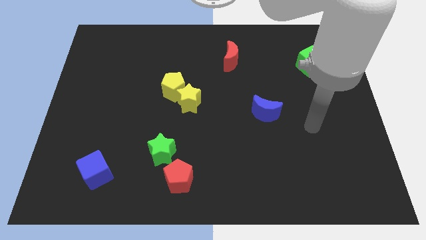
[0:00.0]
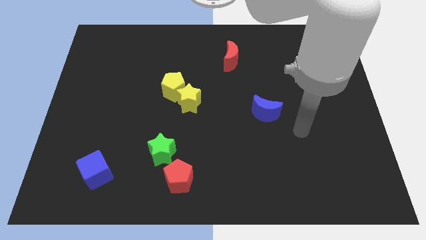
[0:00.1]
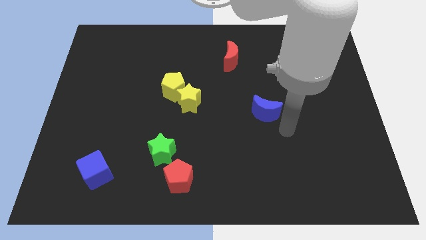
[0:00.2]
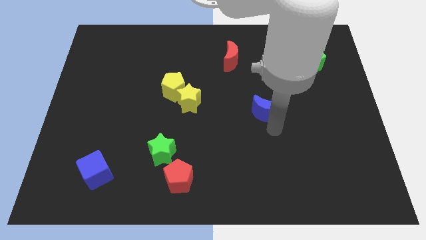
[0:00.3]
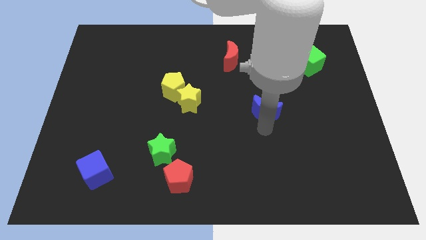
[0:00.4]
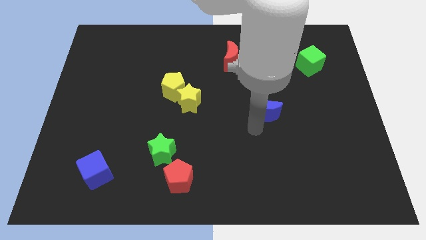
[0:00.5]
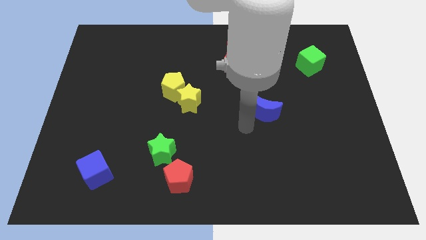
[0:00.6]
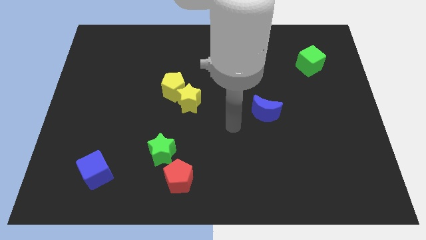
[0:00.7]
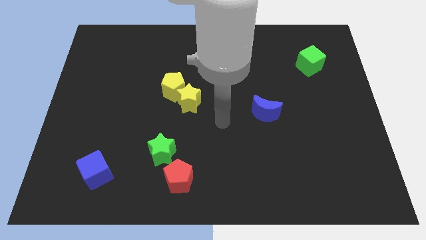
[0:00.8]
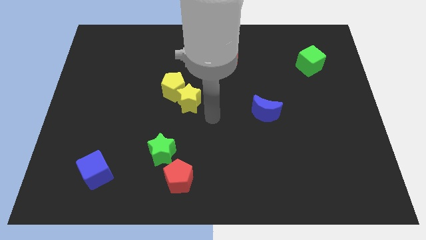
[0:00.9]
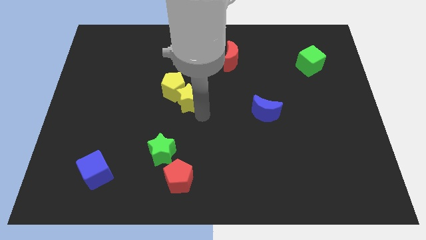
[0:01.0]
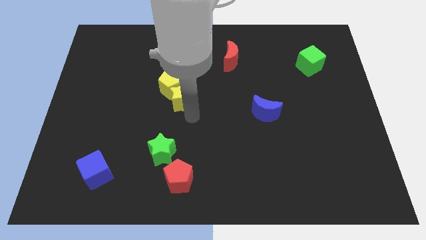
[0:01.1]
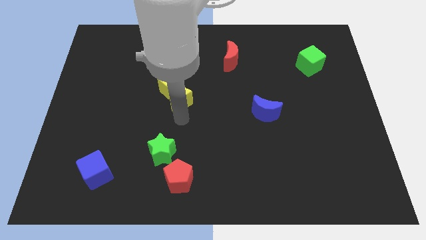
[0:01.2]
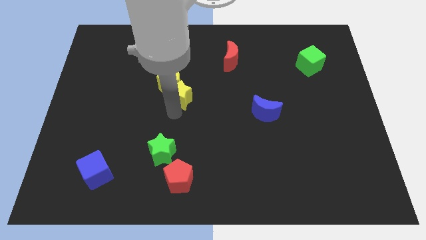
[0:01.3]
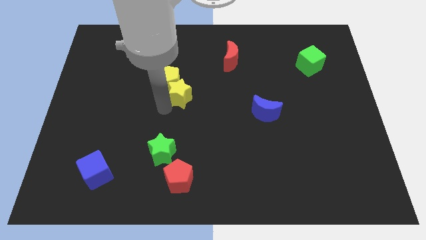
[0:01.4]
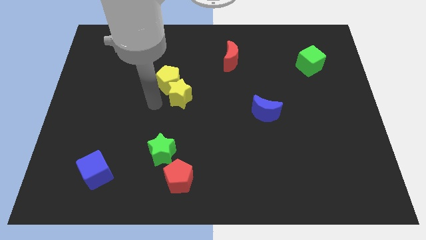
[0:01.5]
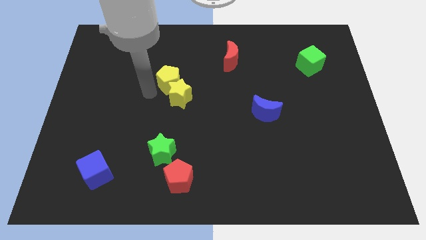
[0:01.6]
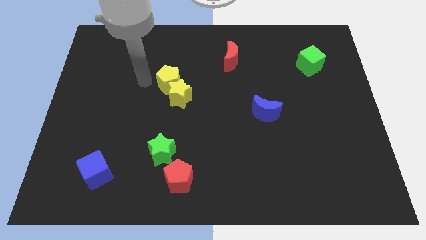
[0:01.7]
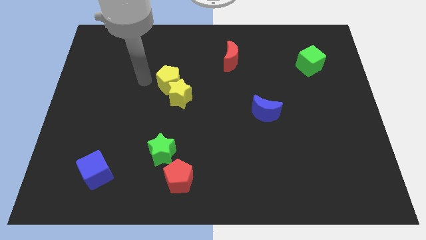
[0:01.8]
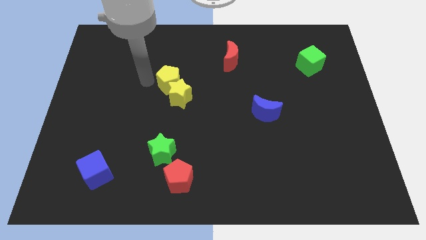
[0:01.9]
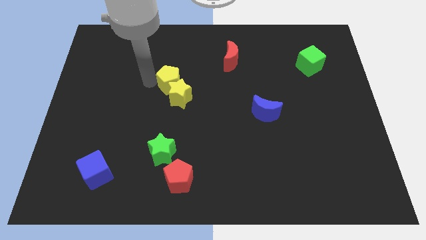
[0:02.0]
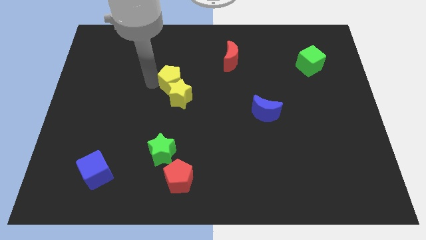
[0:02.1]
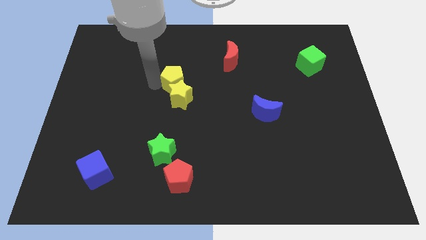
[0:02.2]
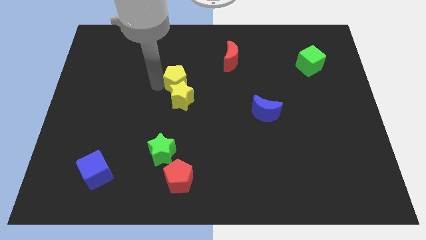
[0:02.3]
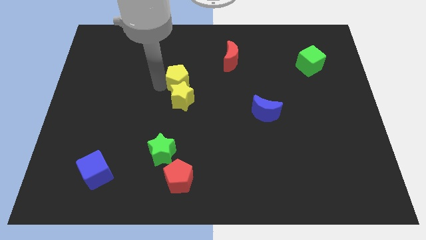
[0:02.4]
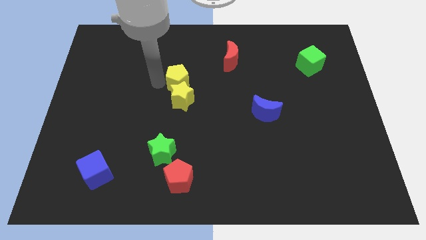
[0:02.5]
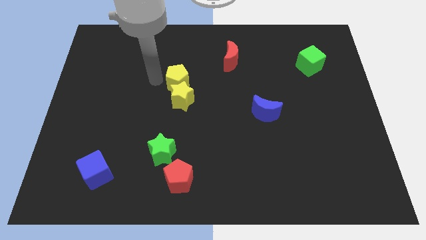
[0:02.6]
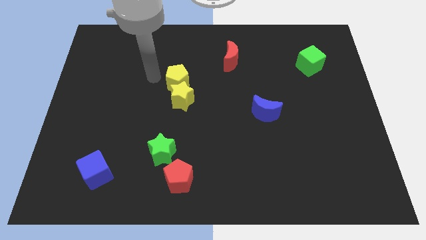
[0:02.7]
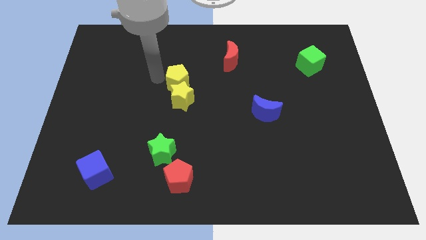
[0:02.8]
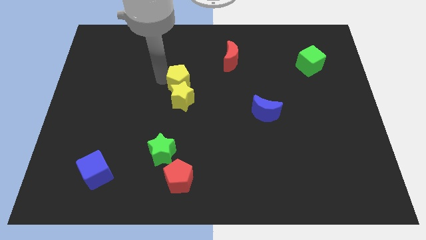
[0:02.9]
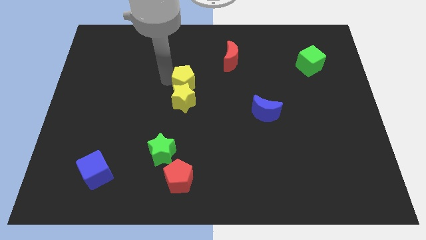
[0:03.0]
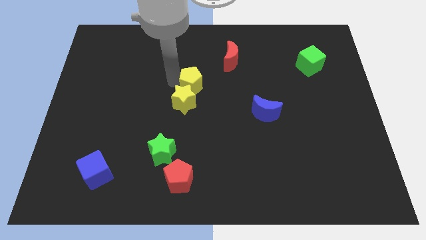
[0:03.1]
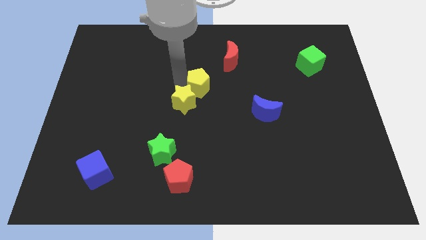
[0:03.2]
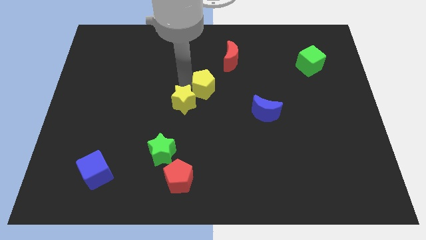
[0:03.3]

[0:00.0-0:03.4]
slightly move the yellow pentagon right

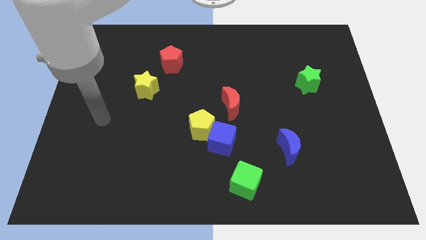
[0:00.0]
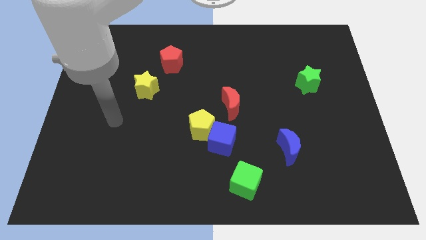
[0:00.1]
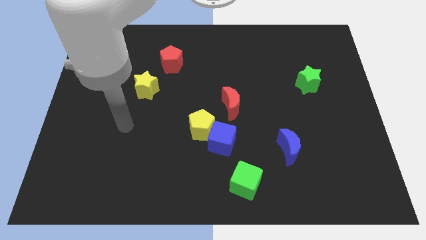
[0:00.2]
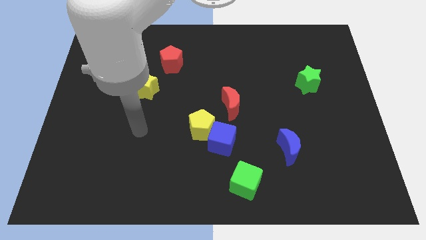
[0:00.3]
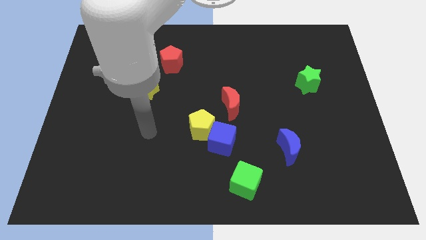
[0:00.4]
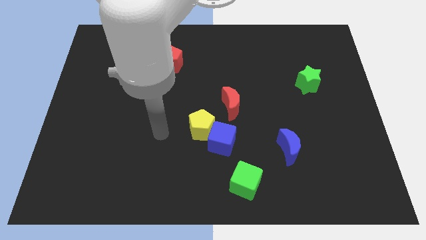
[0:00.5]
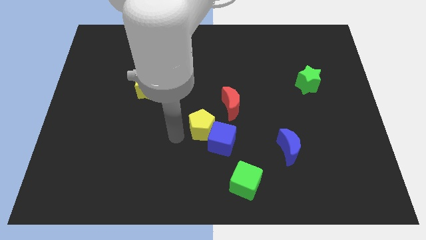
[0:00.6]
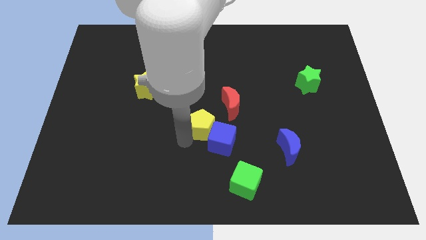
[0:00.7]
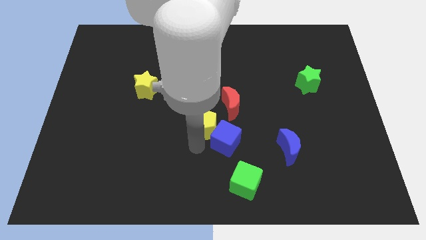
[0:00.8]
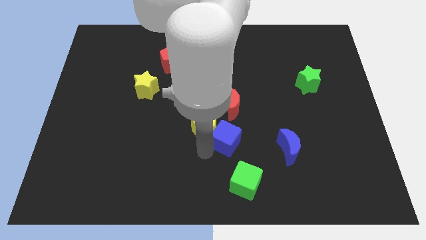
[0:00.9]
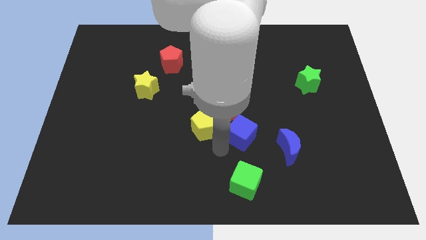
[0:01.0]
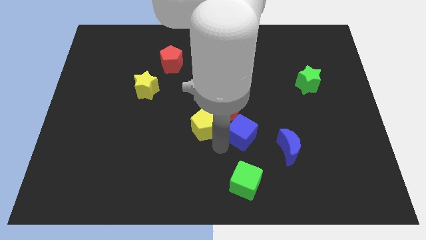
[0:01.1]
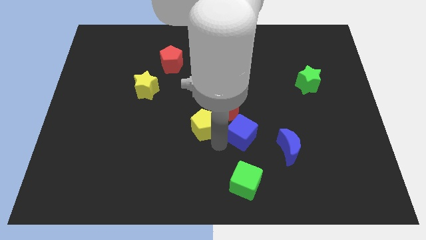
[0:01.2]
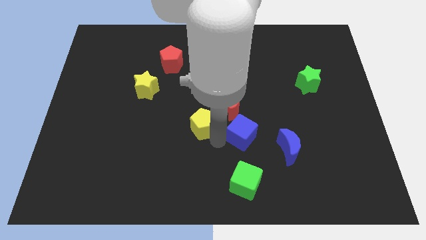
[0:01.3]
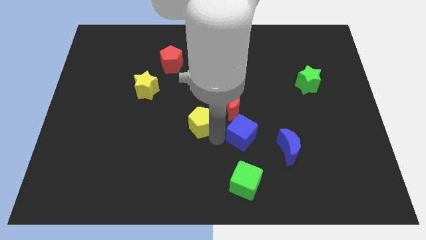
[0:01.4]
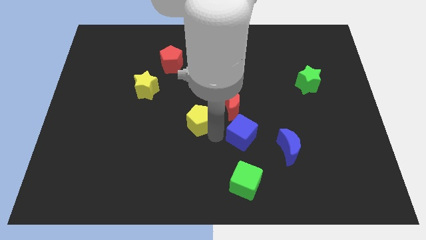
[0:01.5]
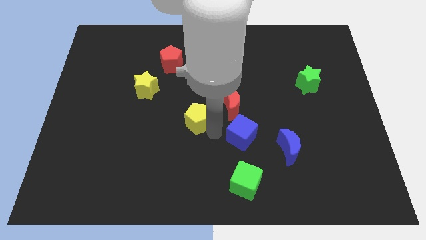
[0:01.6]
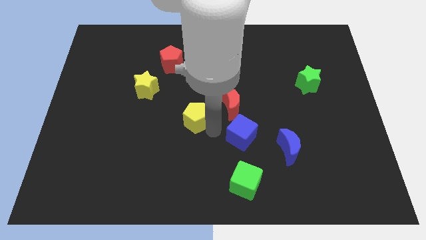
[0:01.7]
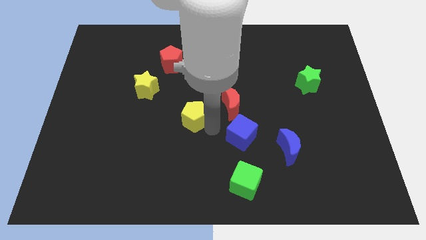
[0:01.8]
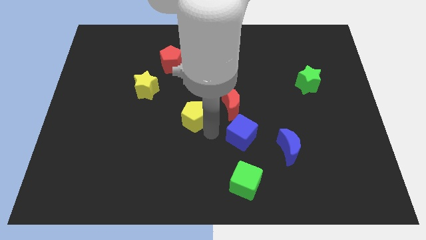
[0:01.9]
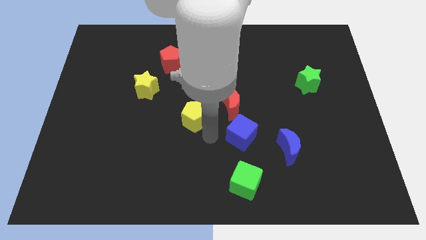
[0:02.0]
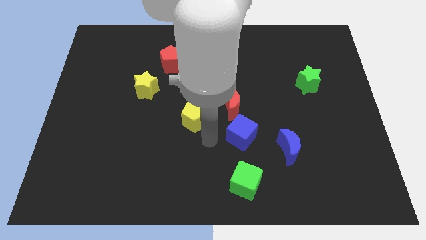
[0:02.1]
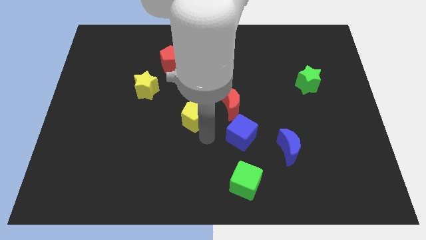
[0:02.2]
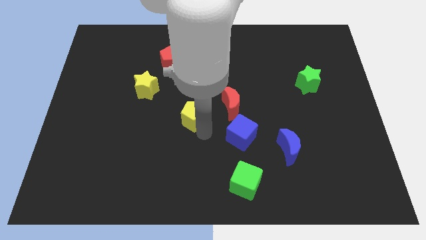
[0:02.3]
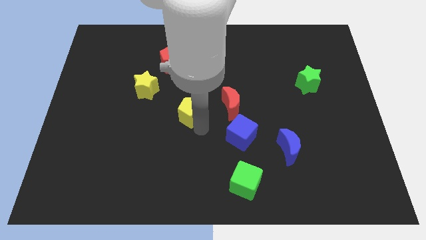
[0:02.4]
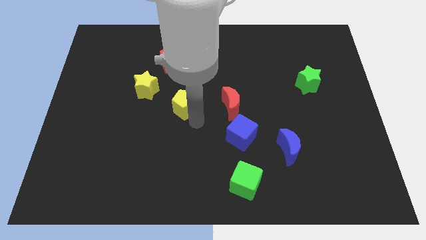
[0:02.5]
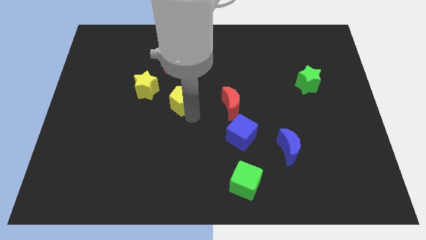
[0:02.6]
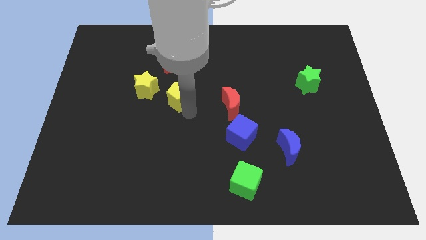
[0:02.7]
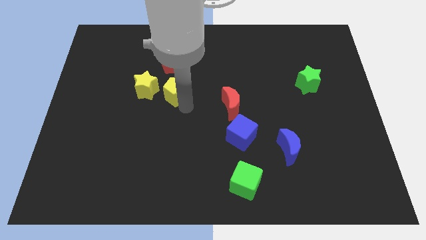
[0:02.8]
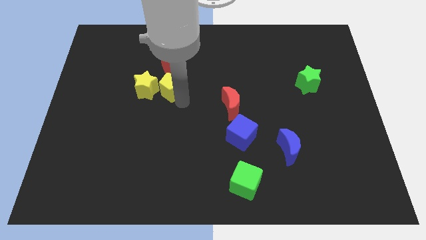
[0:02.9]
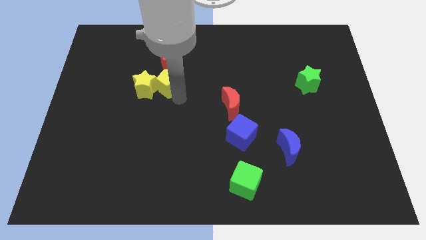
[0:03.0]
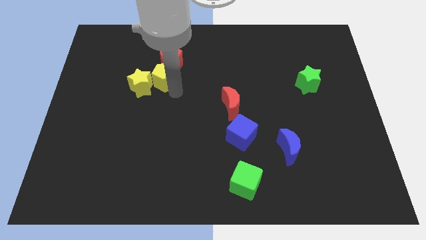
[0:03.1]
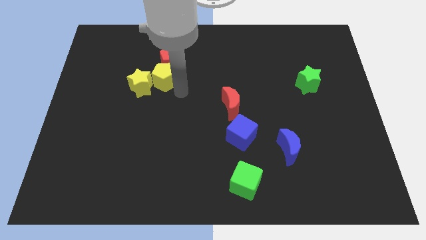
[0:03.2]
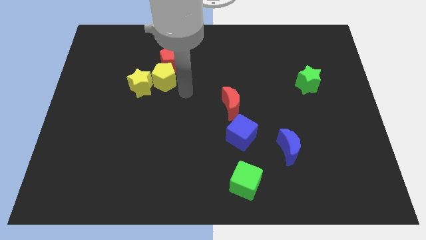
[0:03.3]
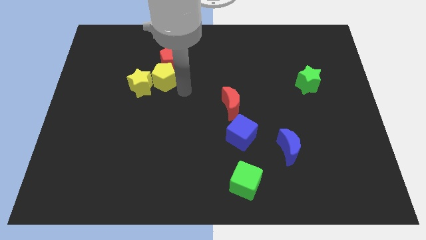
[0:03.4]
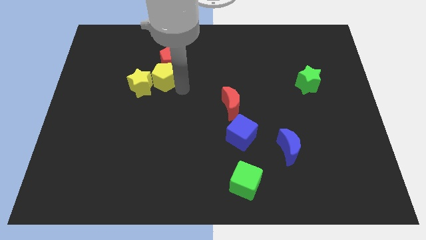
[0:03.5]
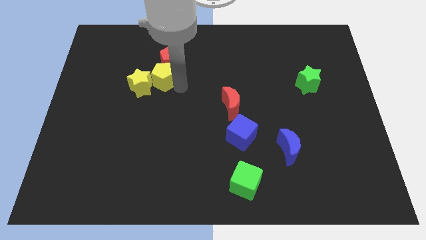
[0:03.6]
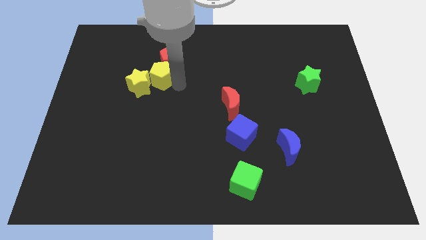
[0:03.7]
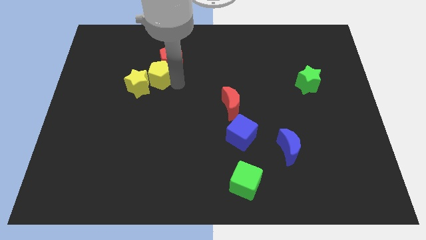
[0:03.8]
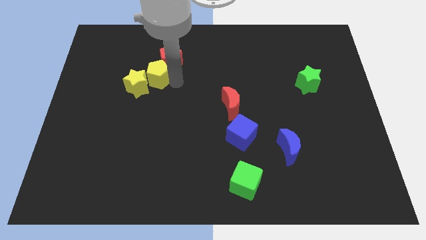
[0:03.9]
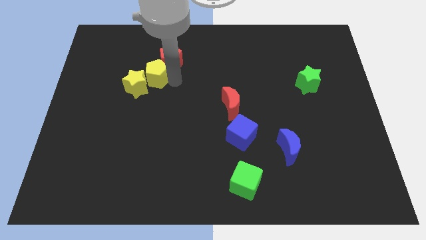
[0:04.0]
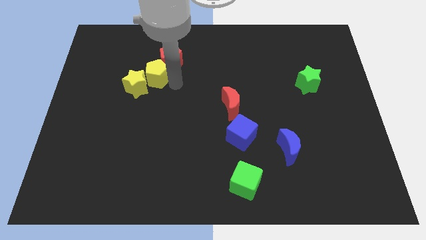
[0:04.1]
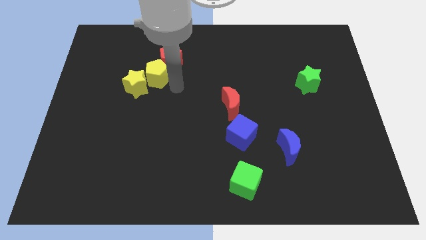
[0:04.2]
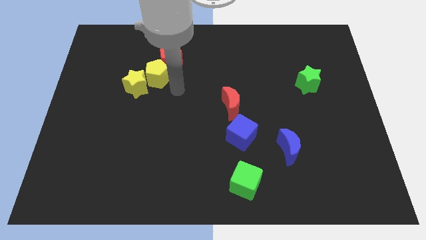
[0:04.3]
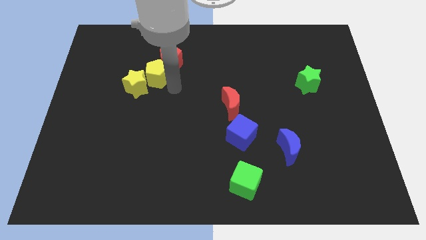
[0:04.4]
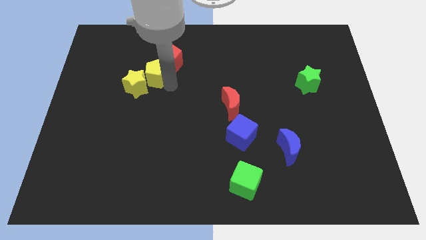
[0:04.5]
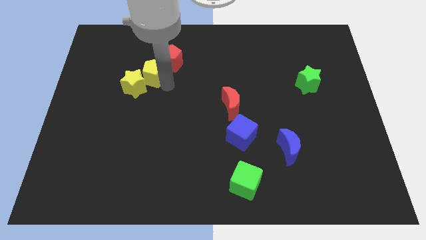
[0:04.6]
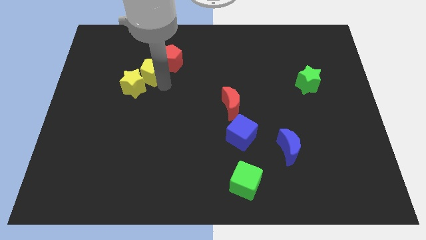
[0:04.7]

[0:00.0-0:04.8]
move the yellow pentagon up and left

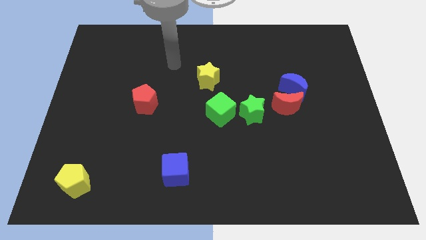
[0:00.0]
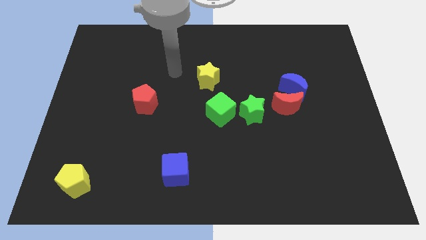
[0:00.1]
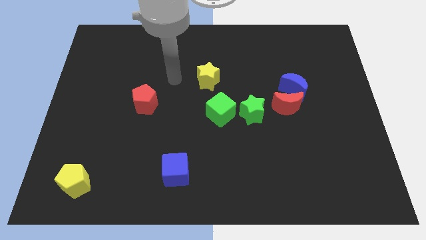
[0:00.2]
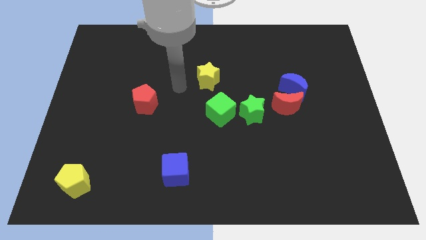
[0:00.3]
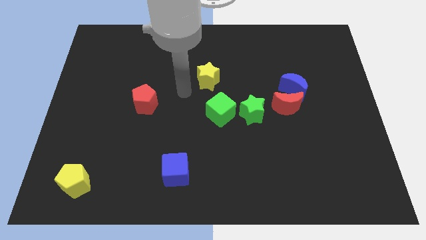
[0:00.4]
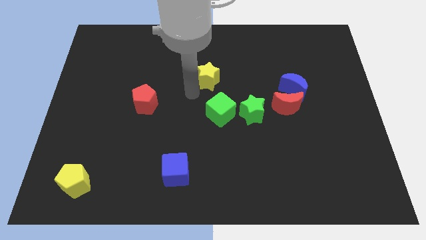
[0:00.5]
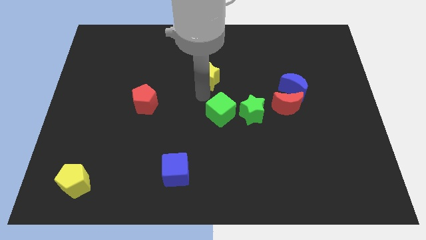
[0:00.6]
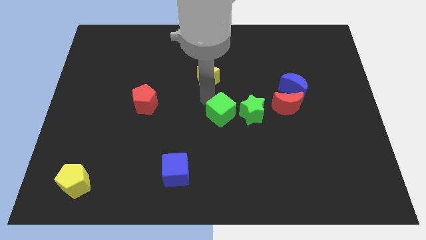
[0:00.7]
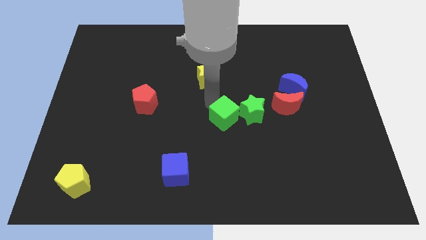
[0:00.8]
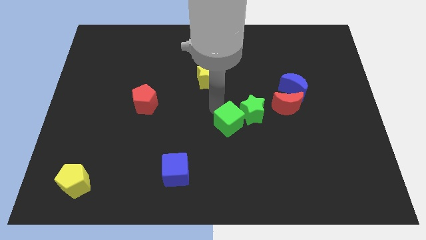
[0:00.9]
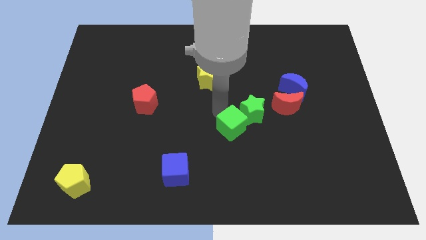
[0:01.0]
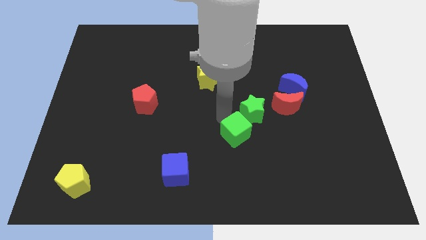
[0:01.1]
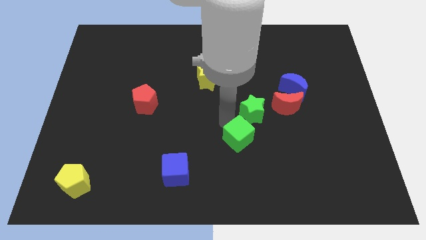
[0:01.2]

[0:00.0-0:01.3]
move the green cube diagonally down and to the right a little
